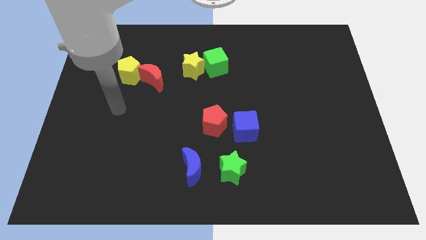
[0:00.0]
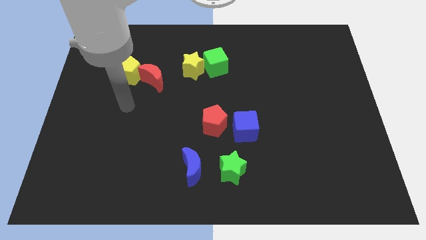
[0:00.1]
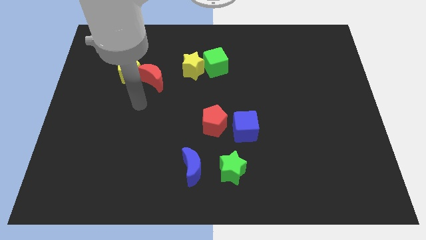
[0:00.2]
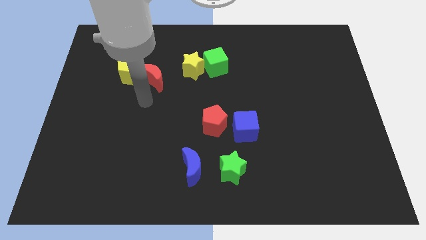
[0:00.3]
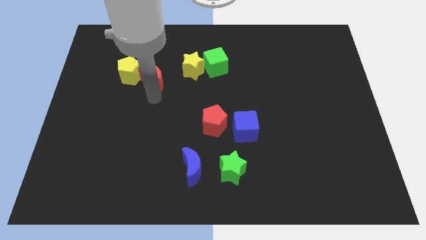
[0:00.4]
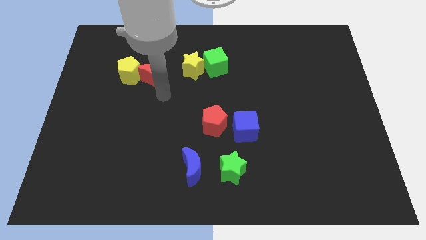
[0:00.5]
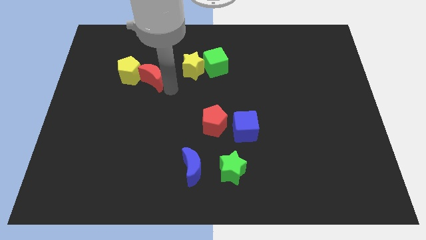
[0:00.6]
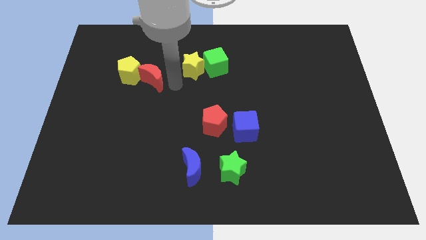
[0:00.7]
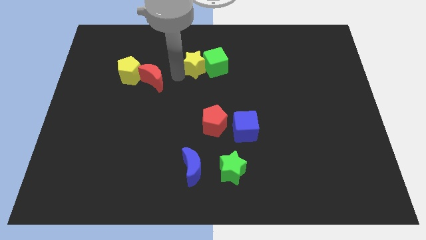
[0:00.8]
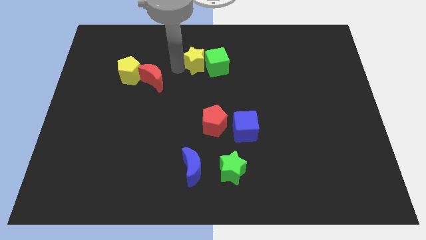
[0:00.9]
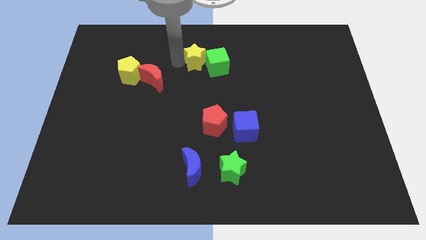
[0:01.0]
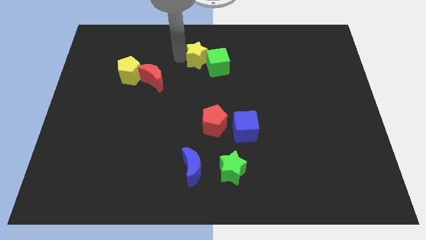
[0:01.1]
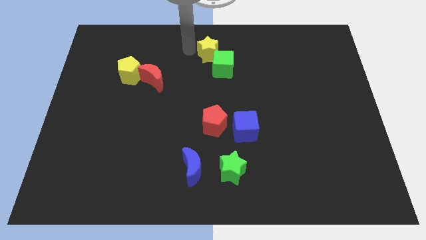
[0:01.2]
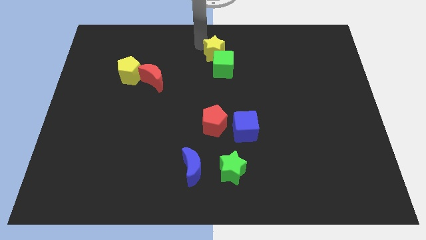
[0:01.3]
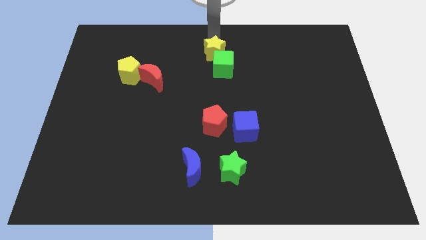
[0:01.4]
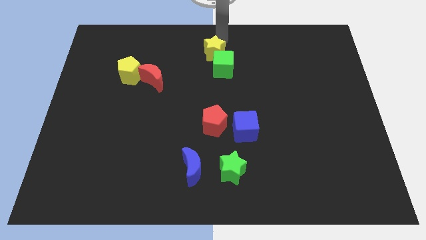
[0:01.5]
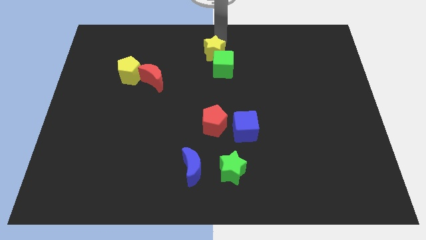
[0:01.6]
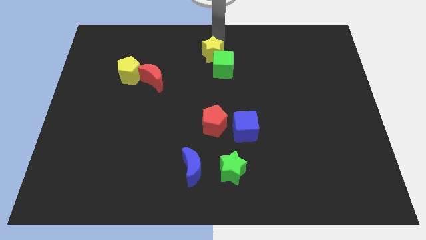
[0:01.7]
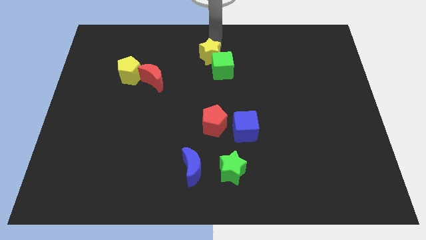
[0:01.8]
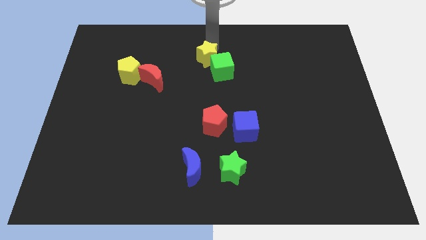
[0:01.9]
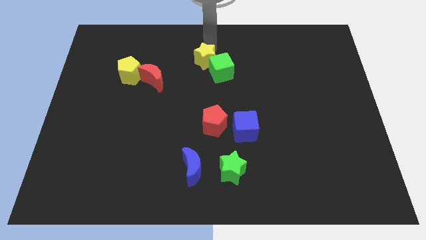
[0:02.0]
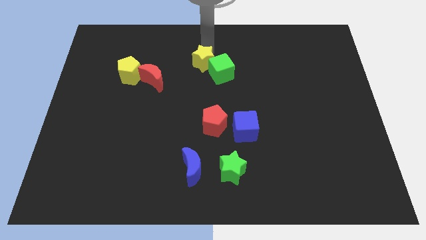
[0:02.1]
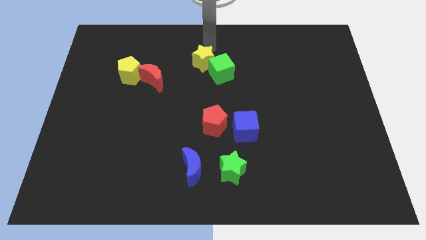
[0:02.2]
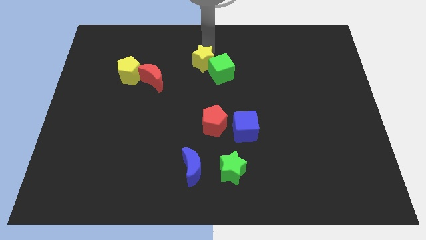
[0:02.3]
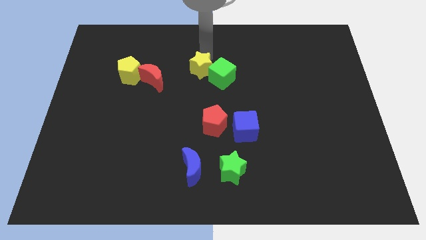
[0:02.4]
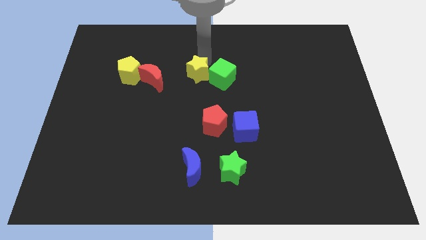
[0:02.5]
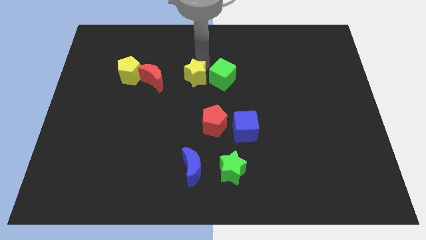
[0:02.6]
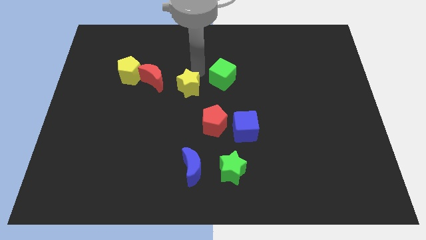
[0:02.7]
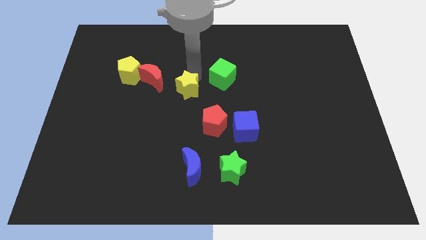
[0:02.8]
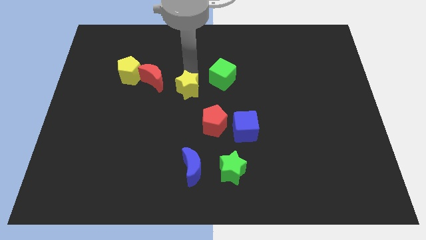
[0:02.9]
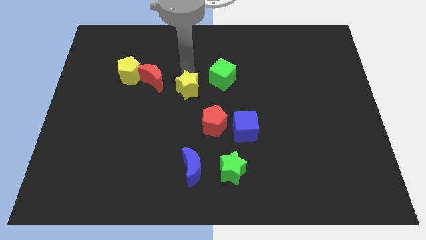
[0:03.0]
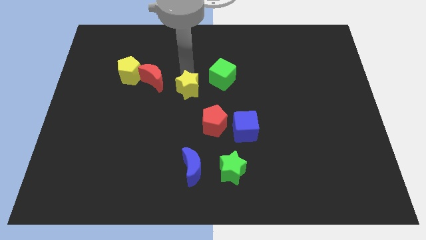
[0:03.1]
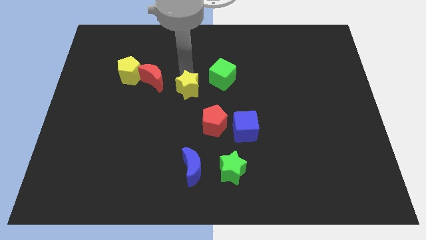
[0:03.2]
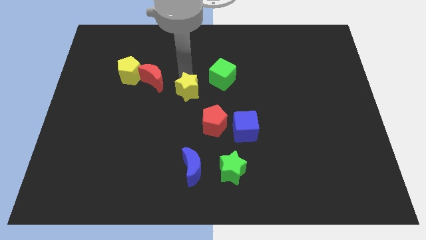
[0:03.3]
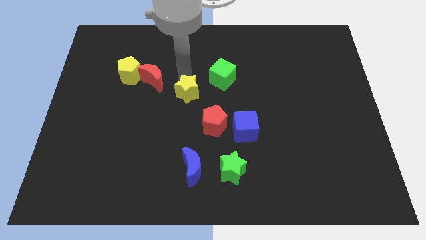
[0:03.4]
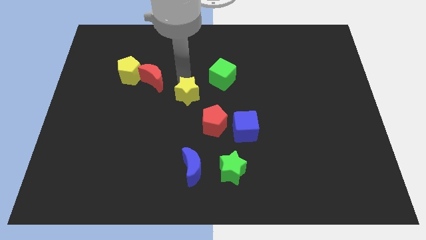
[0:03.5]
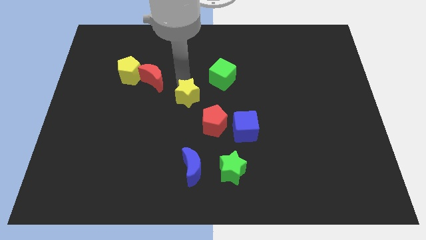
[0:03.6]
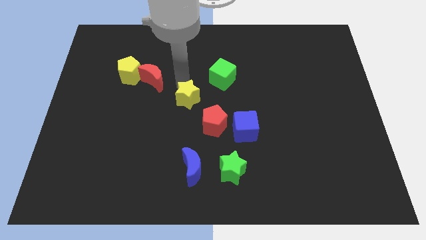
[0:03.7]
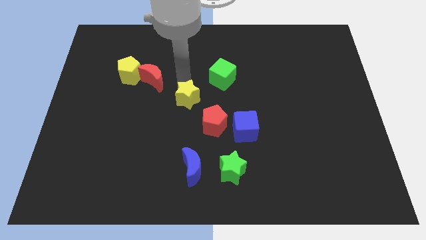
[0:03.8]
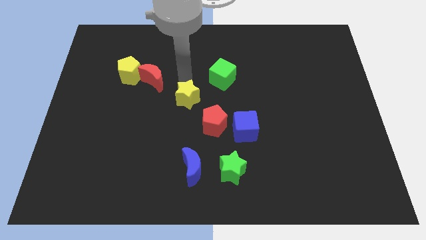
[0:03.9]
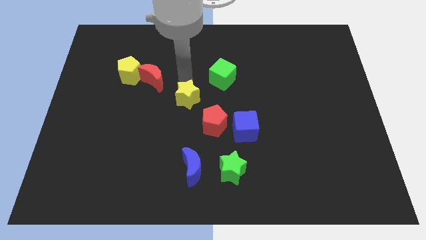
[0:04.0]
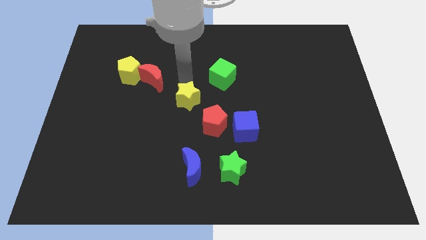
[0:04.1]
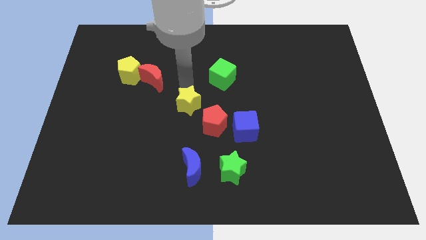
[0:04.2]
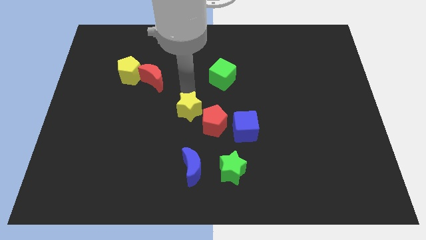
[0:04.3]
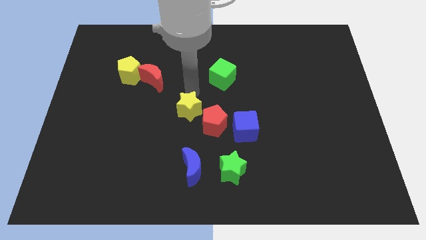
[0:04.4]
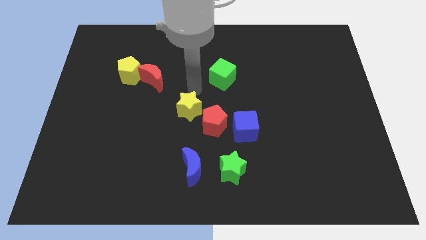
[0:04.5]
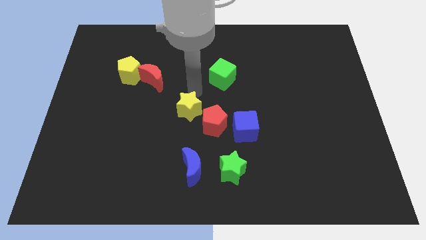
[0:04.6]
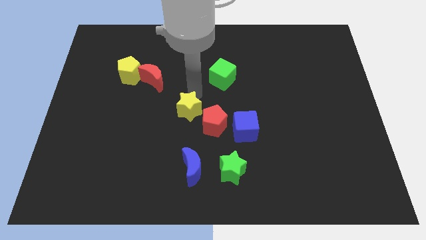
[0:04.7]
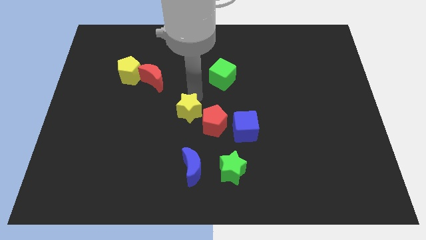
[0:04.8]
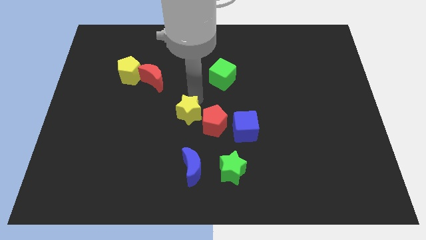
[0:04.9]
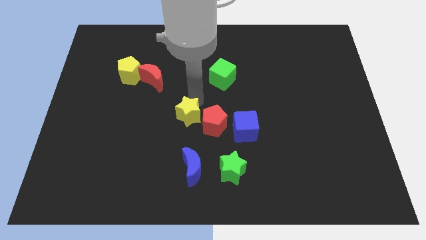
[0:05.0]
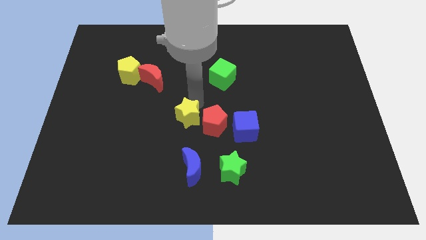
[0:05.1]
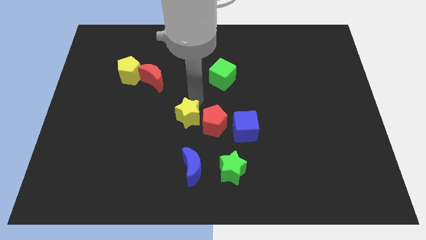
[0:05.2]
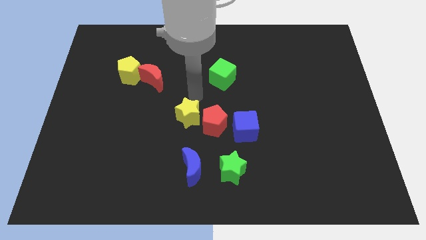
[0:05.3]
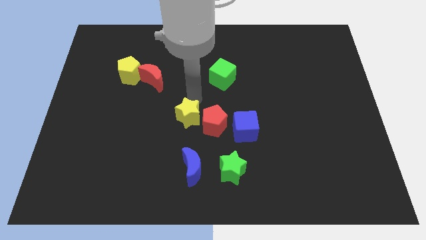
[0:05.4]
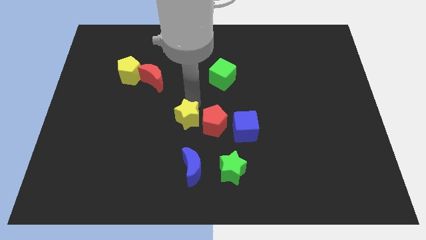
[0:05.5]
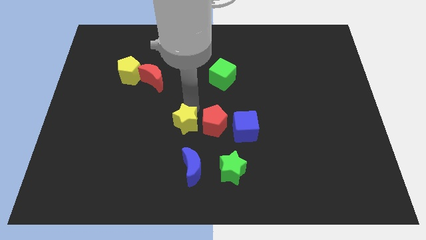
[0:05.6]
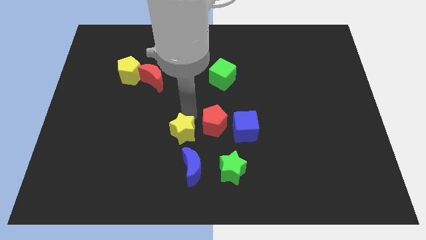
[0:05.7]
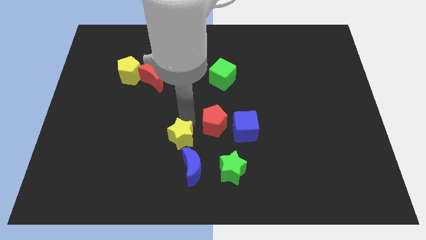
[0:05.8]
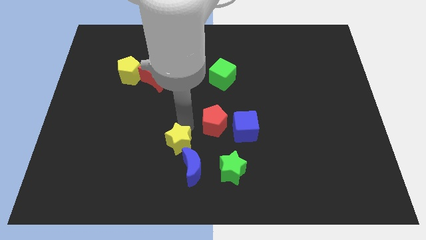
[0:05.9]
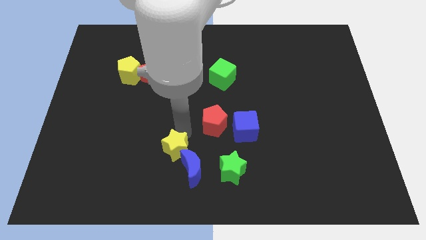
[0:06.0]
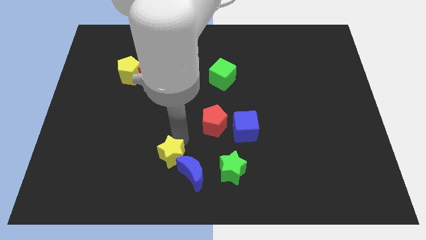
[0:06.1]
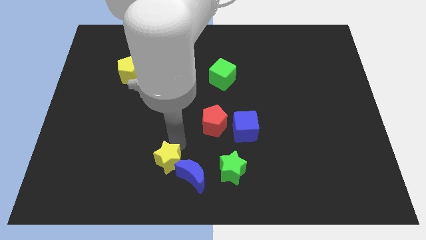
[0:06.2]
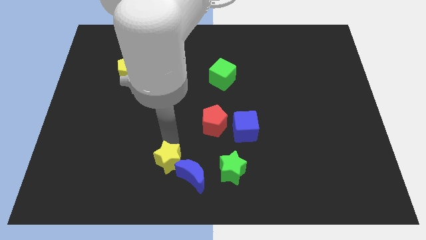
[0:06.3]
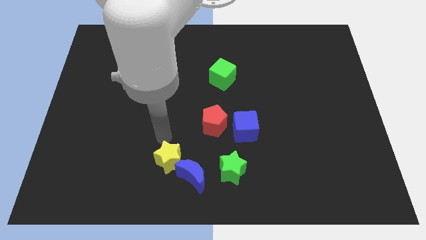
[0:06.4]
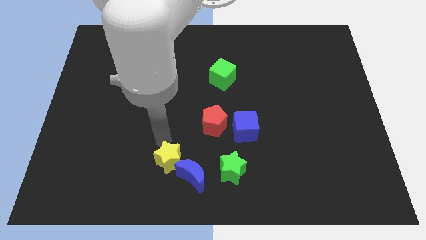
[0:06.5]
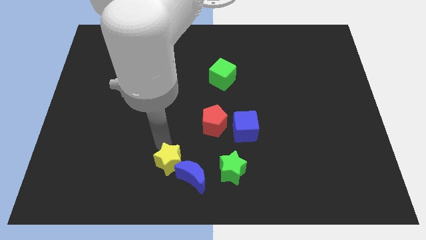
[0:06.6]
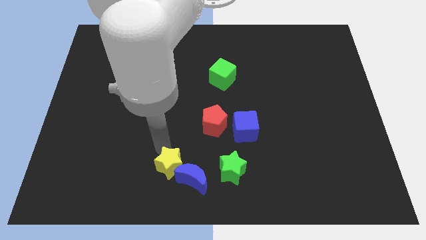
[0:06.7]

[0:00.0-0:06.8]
push the yellow star to the bottom
